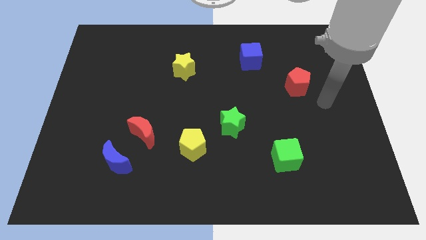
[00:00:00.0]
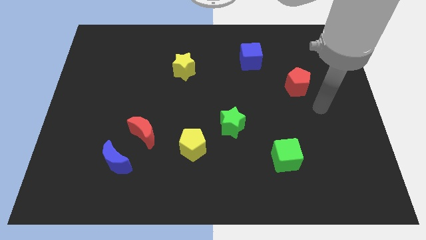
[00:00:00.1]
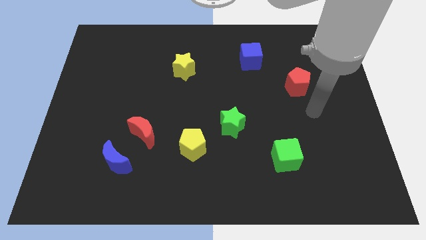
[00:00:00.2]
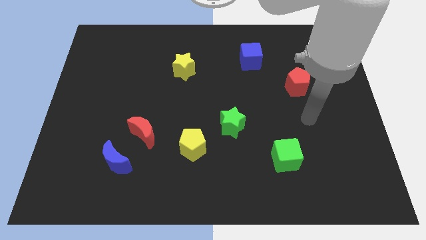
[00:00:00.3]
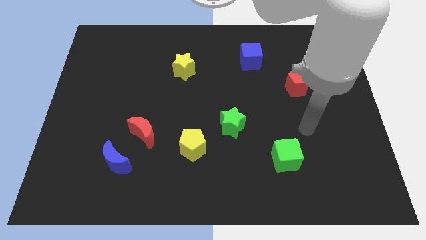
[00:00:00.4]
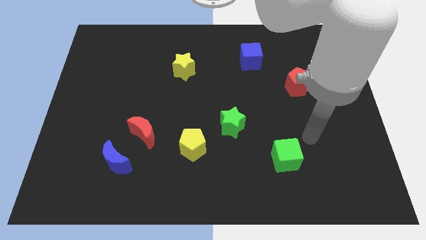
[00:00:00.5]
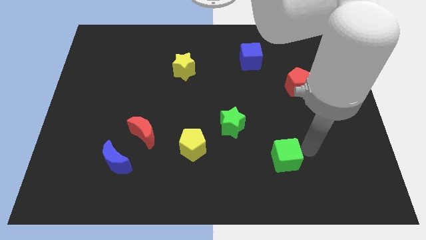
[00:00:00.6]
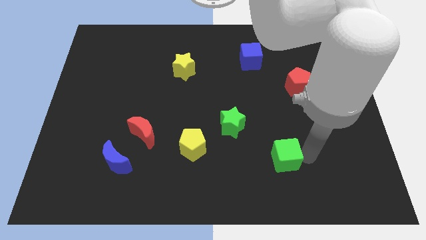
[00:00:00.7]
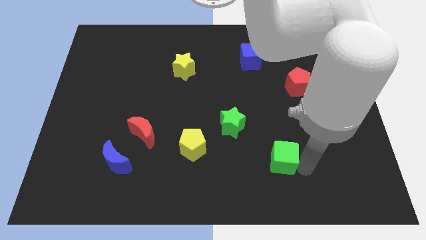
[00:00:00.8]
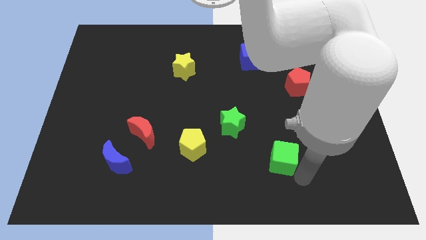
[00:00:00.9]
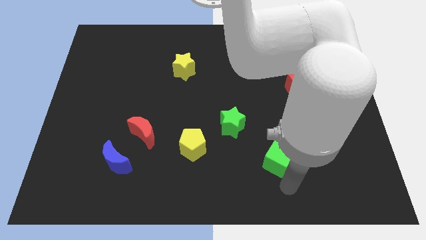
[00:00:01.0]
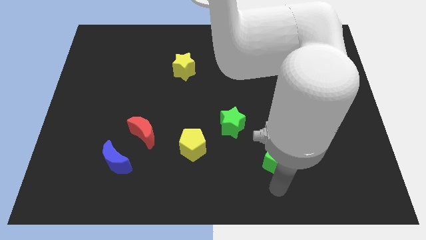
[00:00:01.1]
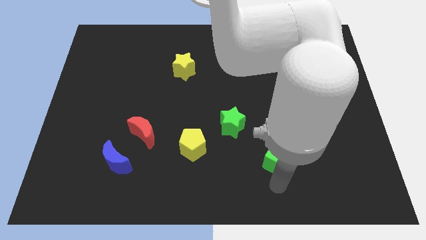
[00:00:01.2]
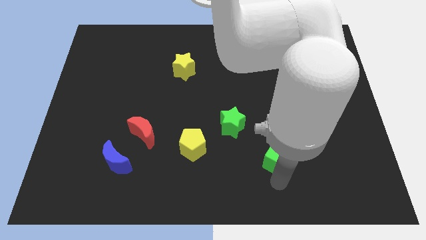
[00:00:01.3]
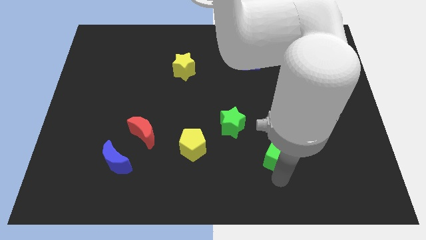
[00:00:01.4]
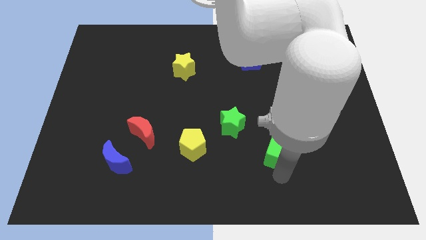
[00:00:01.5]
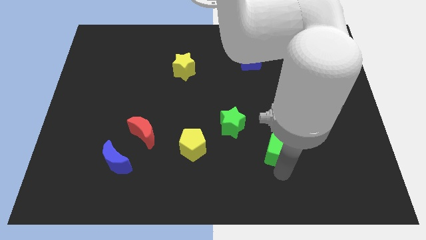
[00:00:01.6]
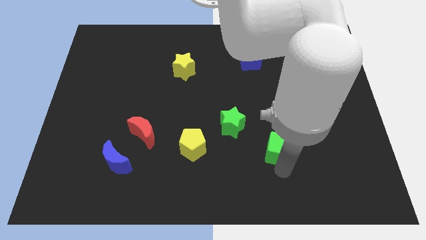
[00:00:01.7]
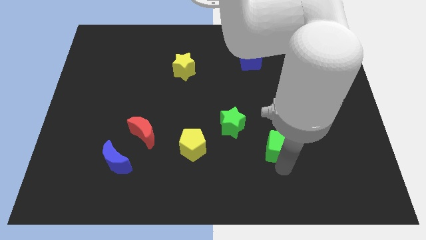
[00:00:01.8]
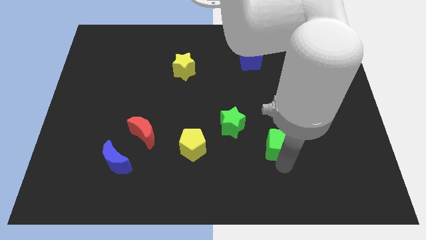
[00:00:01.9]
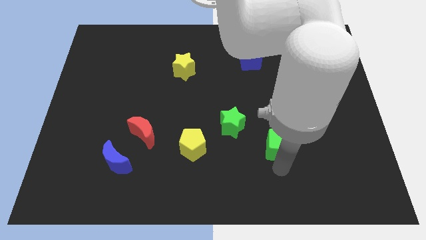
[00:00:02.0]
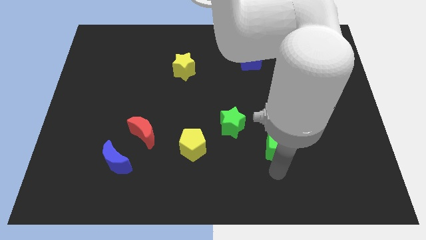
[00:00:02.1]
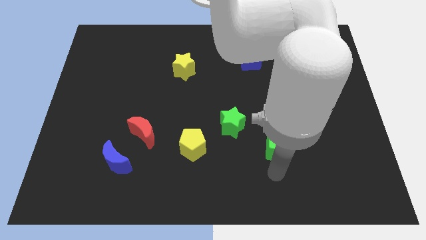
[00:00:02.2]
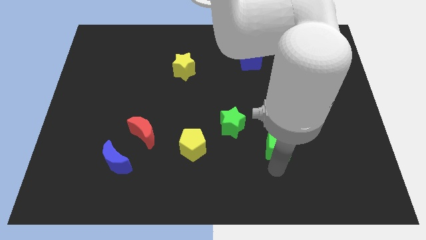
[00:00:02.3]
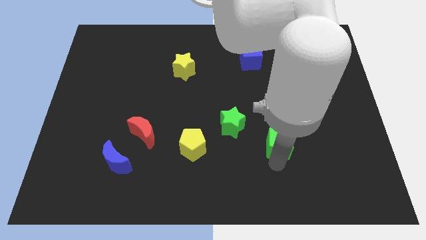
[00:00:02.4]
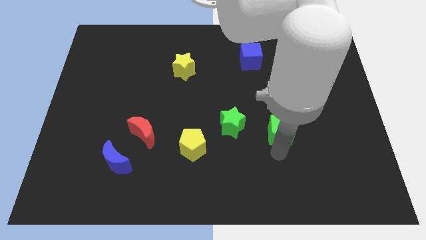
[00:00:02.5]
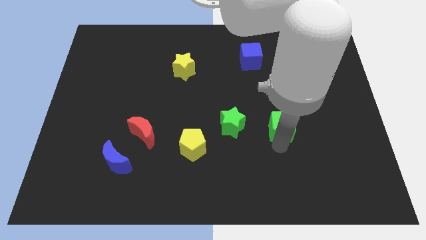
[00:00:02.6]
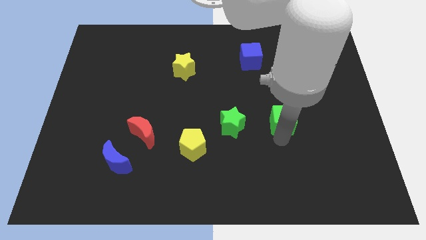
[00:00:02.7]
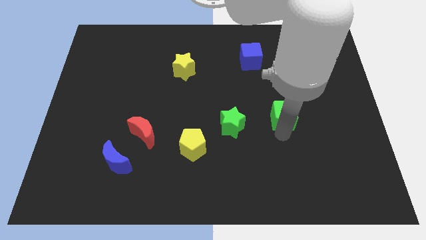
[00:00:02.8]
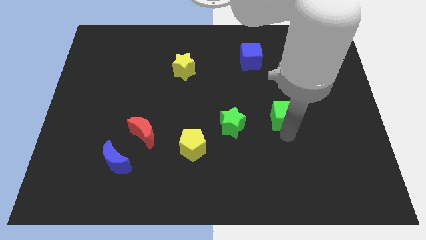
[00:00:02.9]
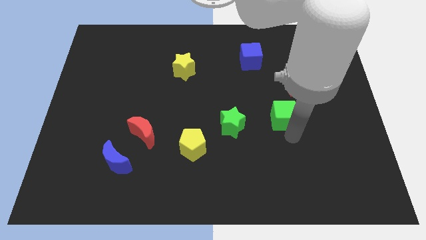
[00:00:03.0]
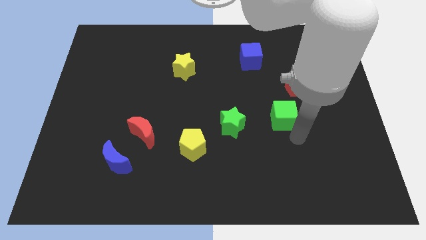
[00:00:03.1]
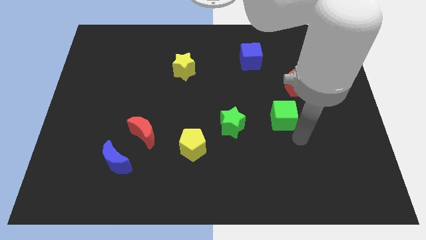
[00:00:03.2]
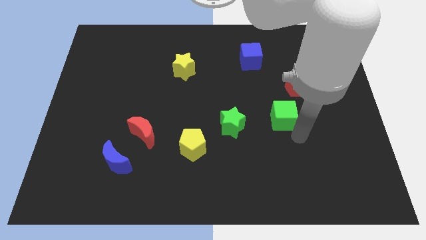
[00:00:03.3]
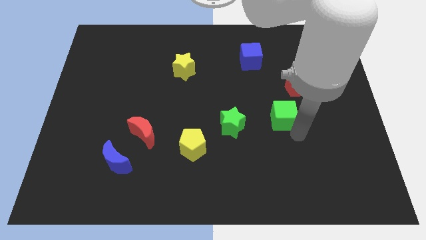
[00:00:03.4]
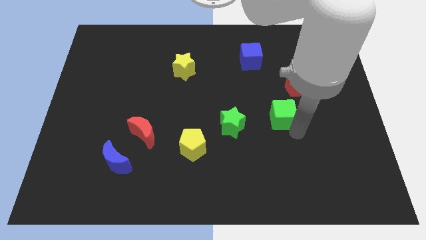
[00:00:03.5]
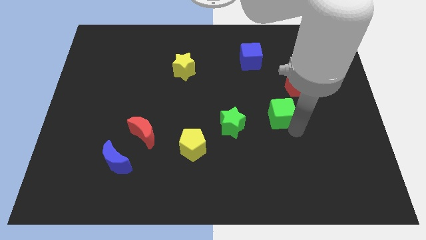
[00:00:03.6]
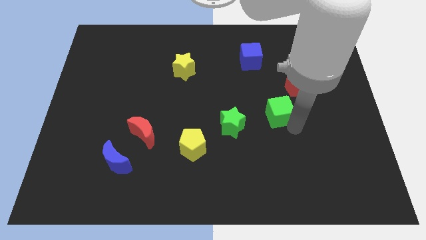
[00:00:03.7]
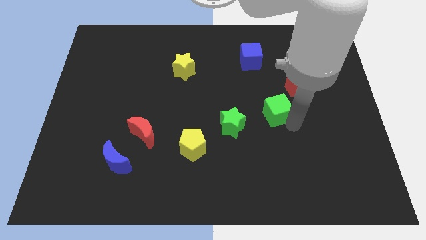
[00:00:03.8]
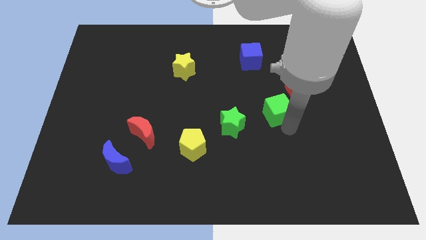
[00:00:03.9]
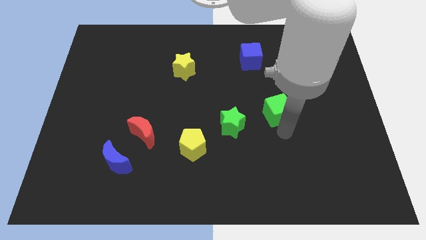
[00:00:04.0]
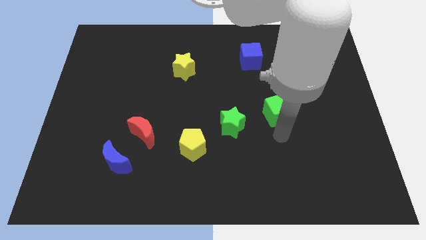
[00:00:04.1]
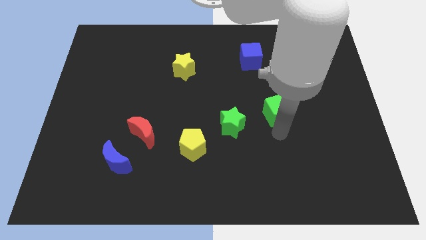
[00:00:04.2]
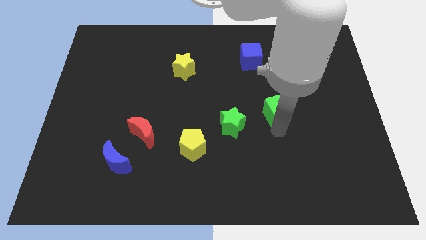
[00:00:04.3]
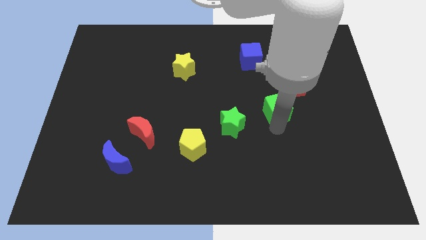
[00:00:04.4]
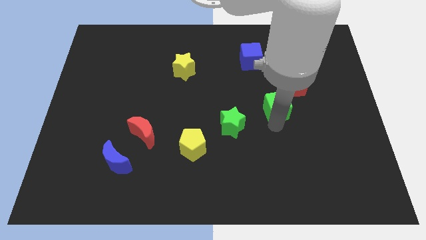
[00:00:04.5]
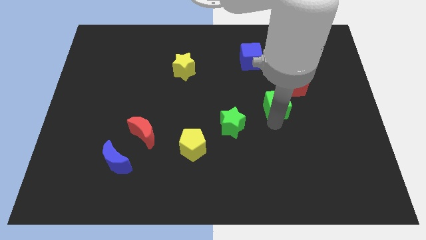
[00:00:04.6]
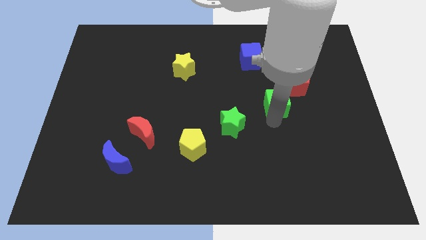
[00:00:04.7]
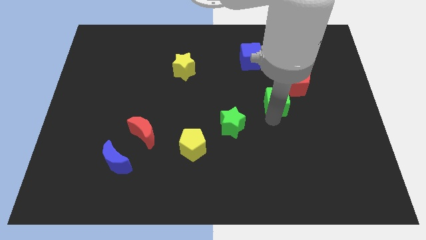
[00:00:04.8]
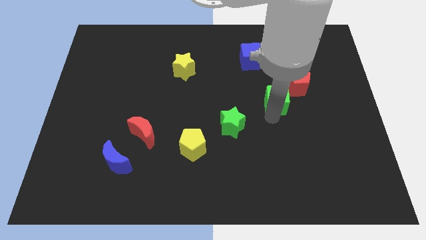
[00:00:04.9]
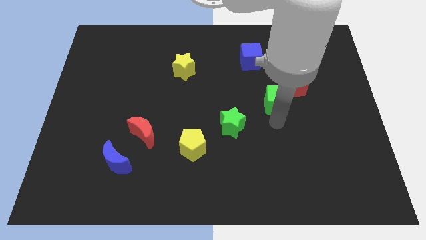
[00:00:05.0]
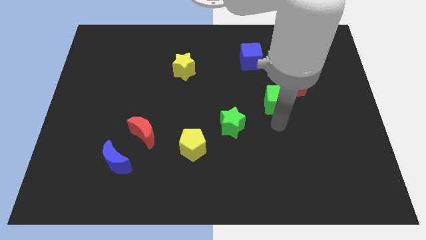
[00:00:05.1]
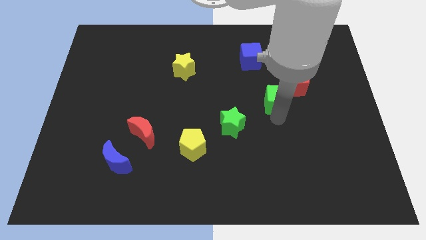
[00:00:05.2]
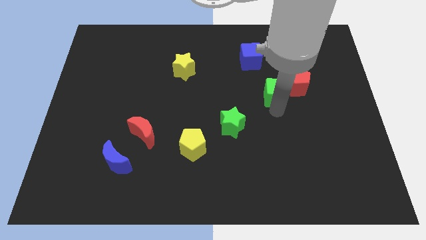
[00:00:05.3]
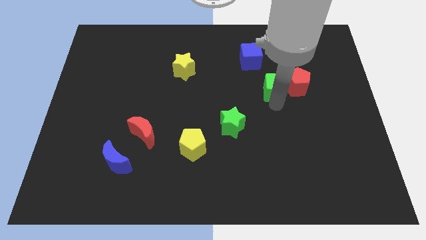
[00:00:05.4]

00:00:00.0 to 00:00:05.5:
push the green cube diagonally down and to the right of the blue cube

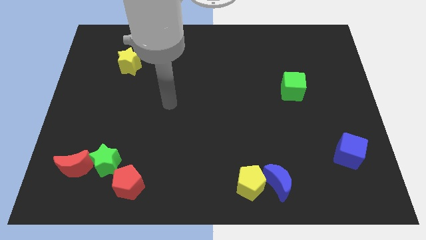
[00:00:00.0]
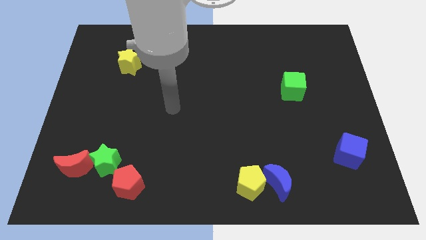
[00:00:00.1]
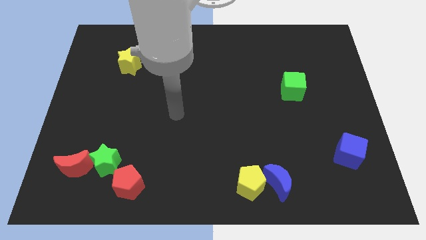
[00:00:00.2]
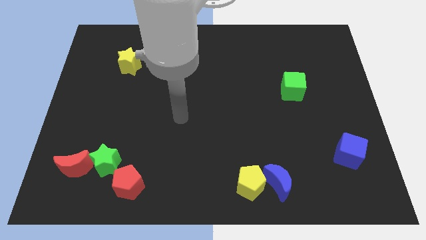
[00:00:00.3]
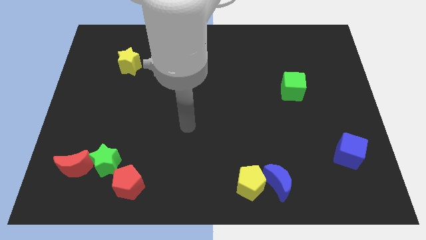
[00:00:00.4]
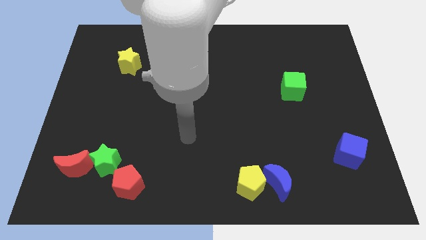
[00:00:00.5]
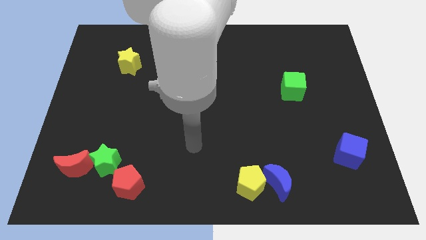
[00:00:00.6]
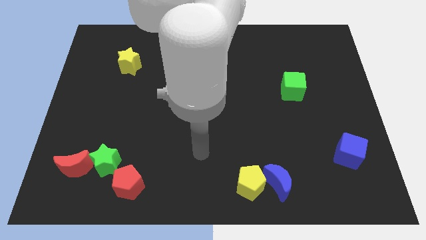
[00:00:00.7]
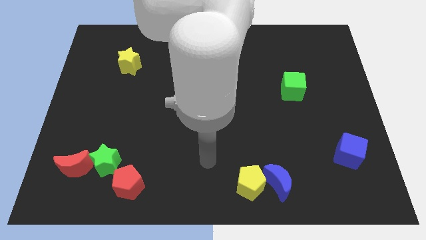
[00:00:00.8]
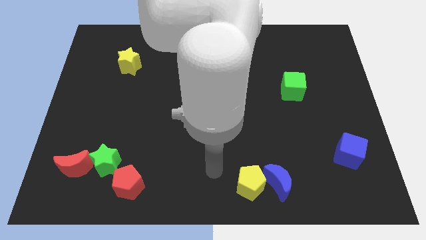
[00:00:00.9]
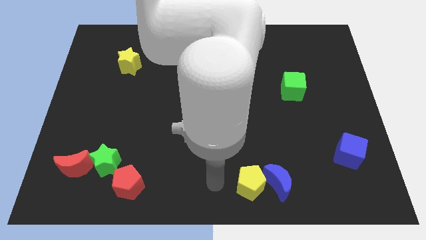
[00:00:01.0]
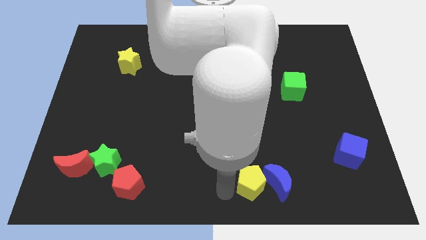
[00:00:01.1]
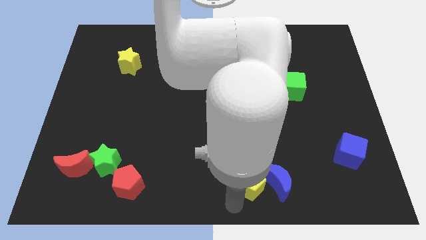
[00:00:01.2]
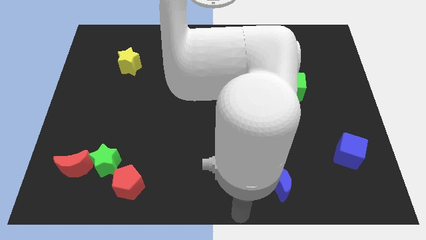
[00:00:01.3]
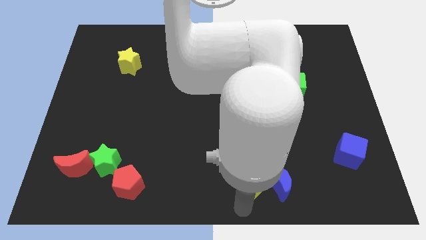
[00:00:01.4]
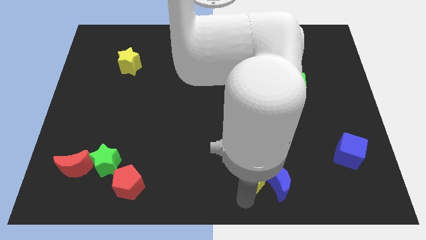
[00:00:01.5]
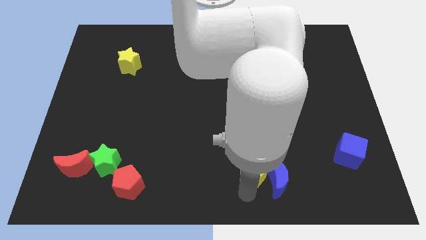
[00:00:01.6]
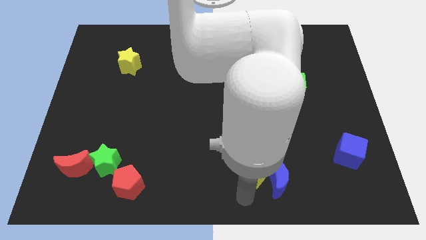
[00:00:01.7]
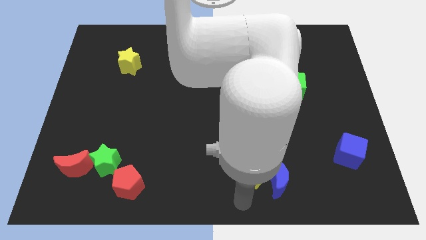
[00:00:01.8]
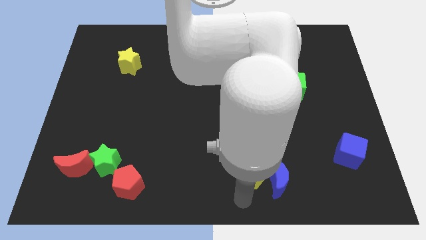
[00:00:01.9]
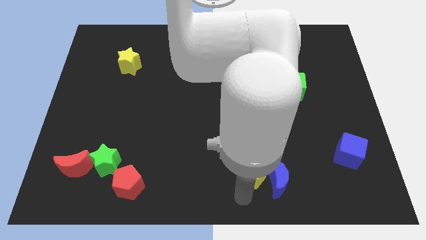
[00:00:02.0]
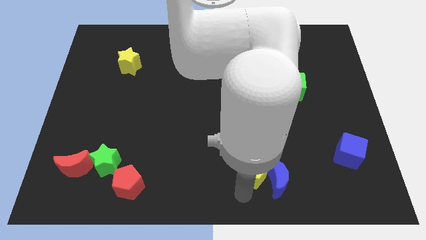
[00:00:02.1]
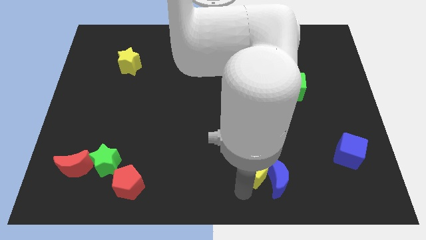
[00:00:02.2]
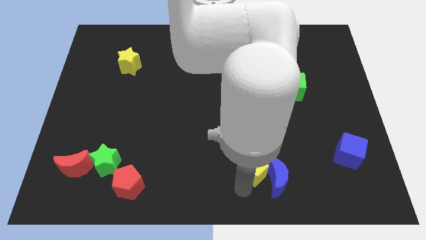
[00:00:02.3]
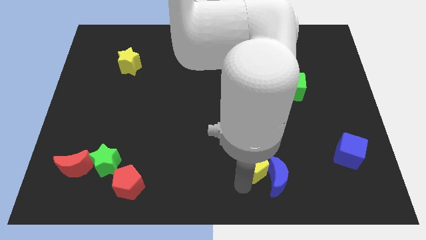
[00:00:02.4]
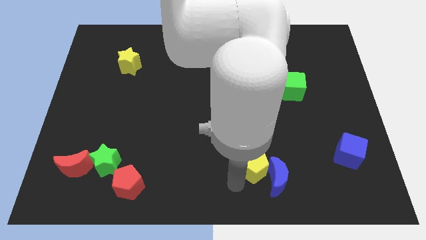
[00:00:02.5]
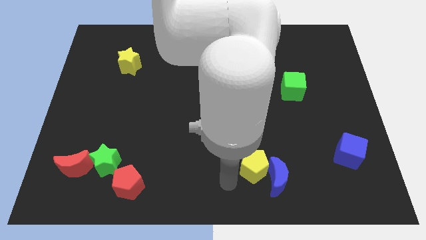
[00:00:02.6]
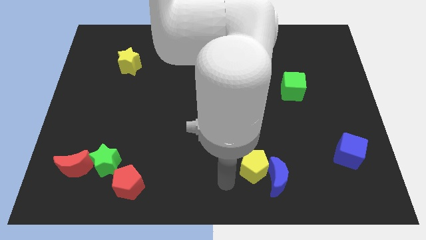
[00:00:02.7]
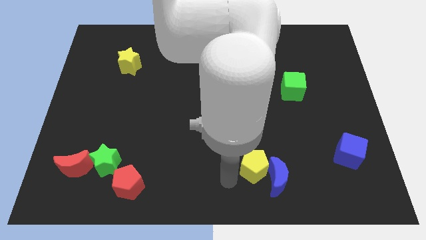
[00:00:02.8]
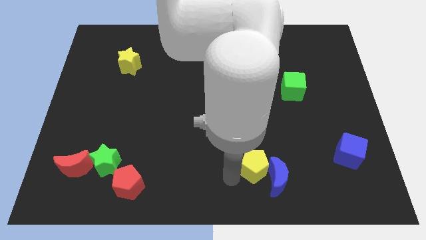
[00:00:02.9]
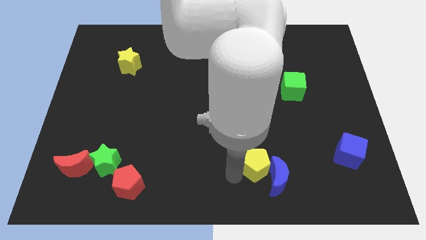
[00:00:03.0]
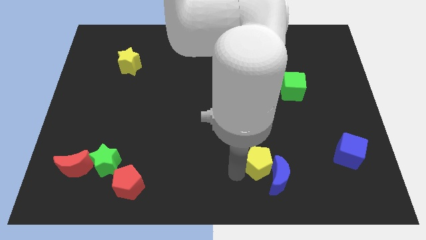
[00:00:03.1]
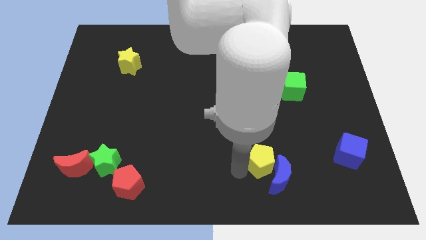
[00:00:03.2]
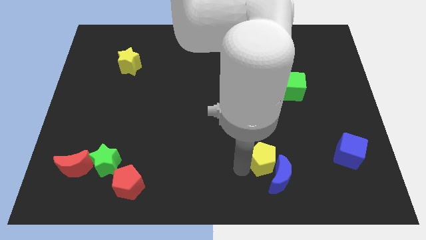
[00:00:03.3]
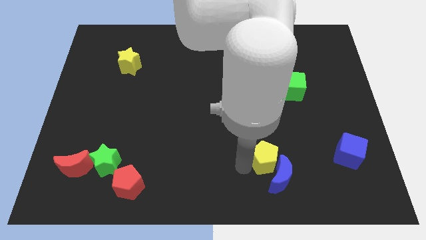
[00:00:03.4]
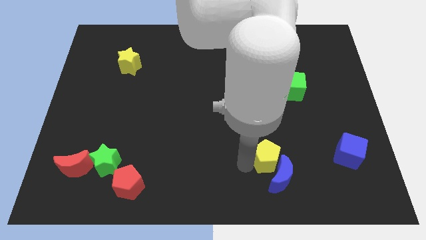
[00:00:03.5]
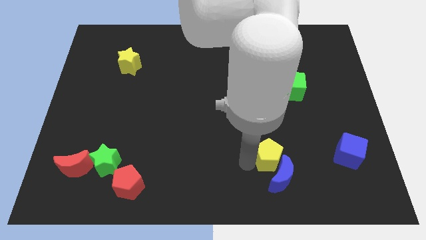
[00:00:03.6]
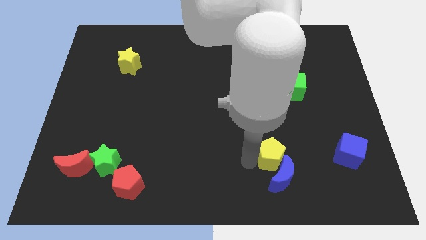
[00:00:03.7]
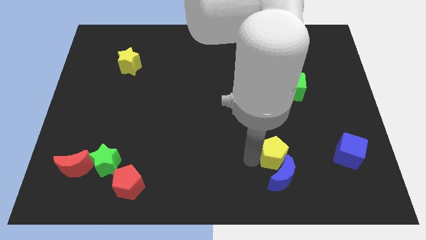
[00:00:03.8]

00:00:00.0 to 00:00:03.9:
push the yellow pentagon diagonally up and to the right of the blue moon
